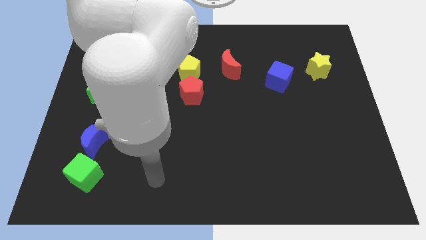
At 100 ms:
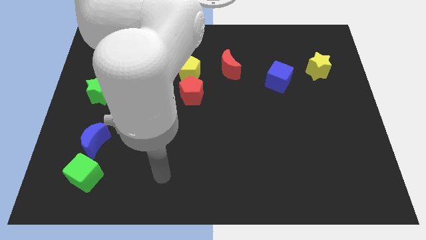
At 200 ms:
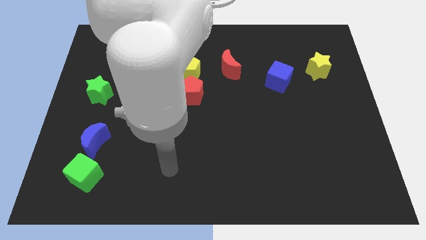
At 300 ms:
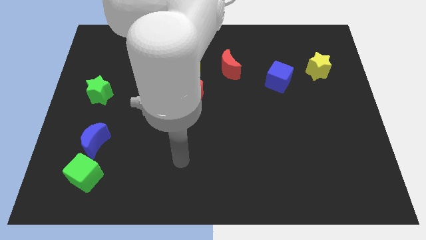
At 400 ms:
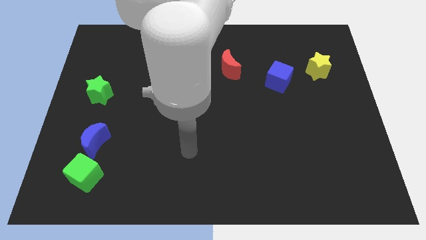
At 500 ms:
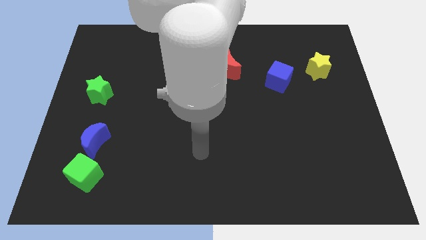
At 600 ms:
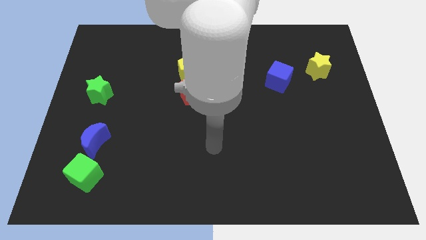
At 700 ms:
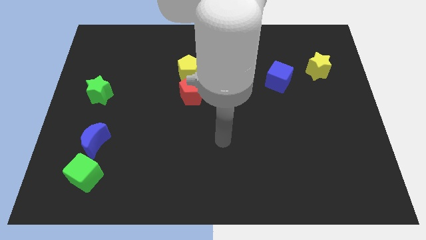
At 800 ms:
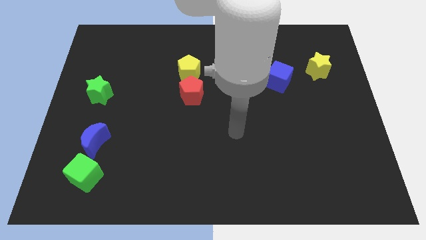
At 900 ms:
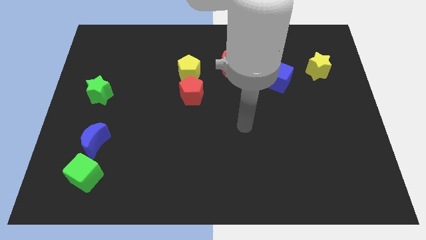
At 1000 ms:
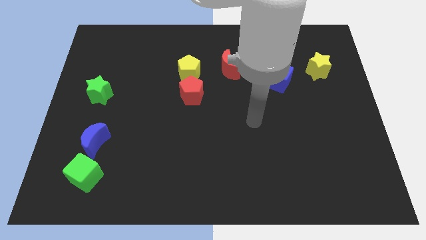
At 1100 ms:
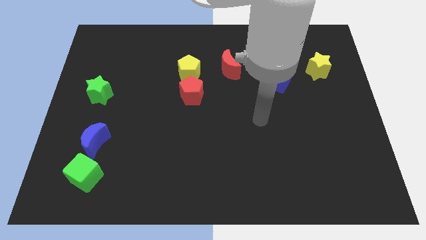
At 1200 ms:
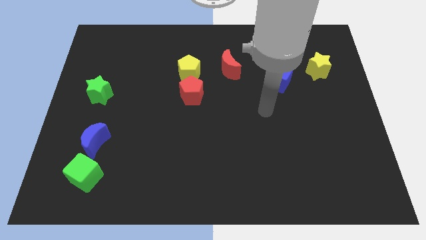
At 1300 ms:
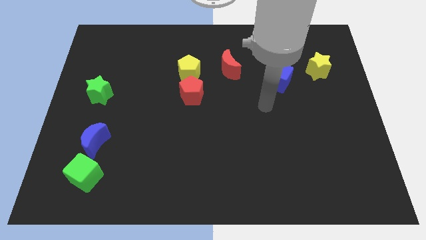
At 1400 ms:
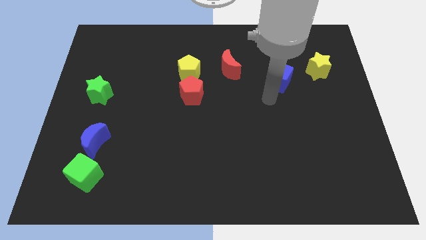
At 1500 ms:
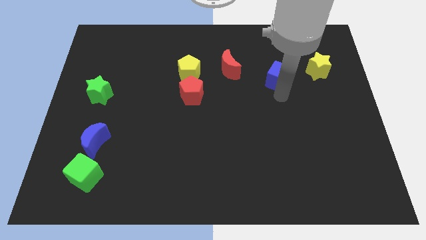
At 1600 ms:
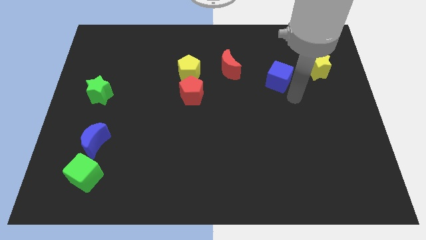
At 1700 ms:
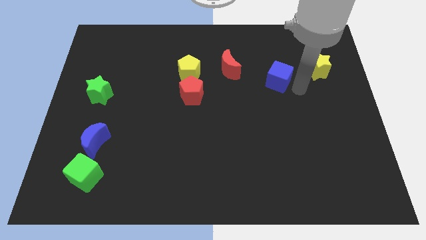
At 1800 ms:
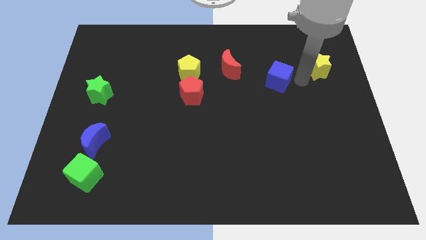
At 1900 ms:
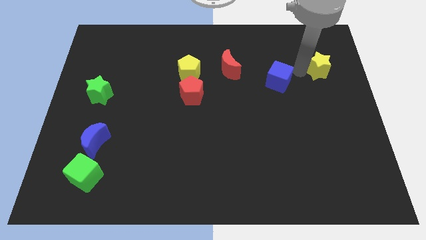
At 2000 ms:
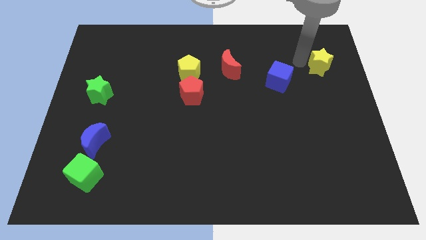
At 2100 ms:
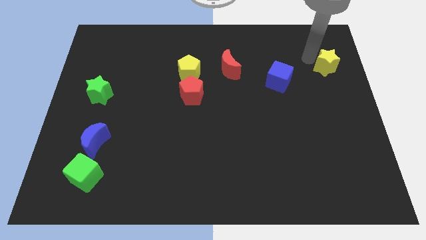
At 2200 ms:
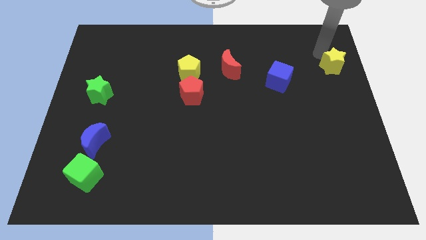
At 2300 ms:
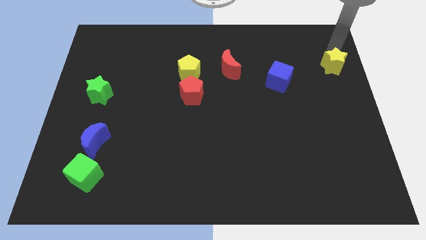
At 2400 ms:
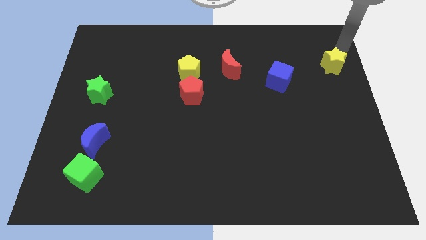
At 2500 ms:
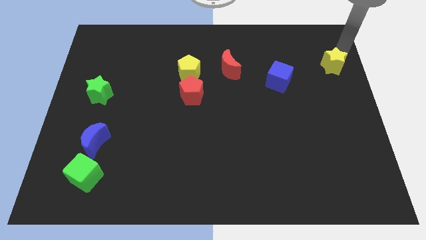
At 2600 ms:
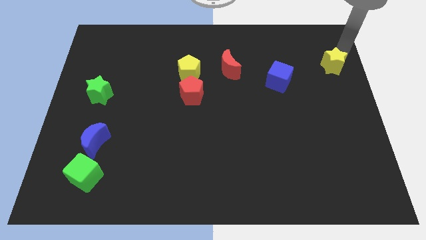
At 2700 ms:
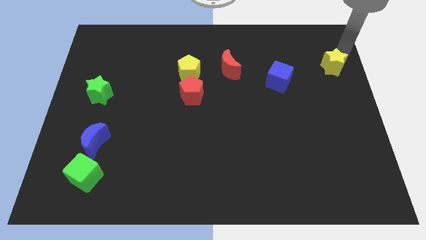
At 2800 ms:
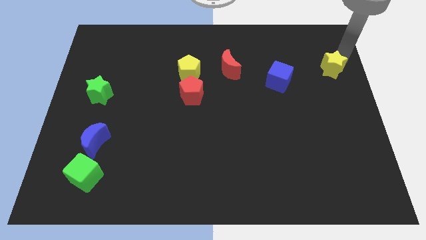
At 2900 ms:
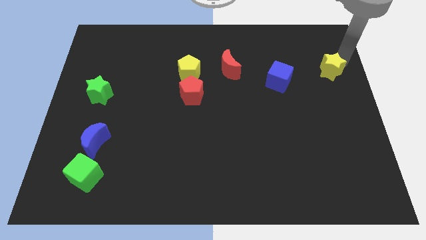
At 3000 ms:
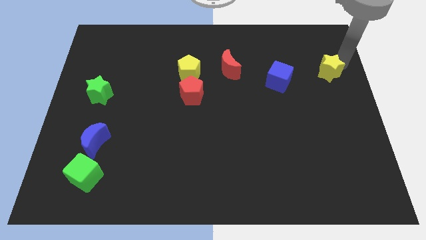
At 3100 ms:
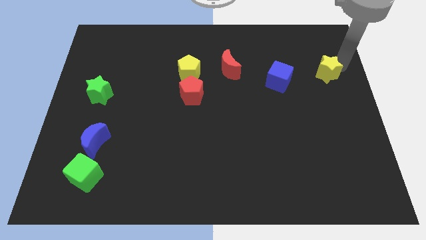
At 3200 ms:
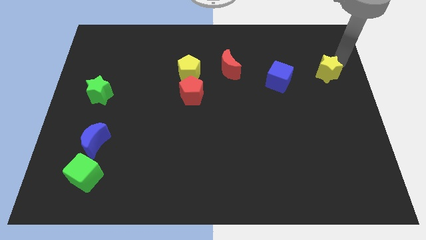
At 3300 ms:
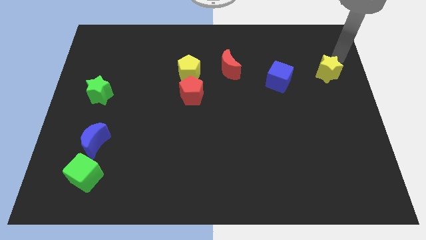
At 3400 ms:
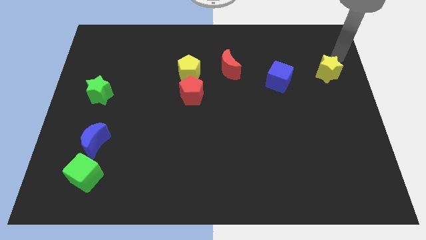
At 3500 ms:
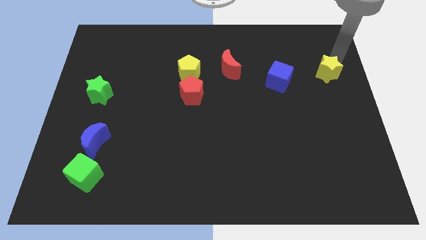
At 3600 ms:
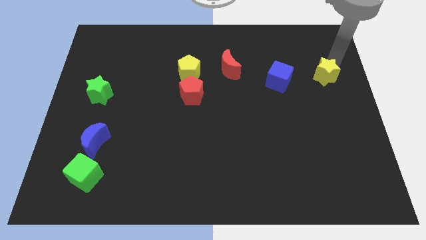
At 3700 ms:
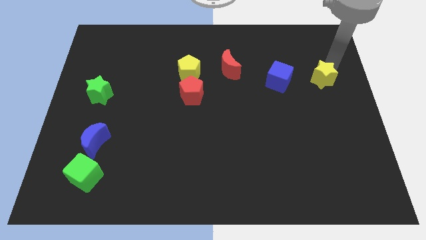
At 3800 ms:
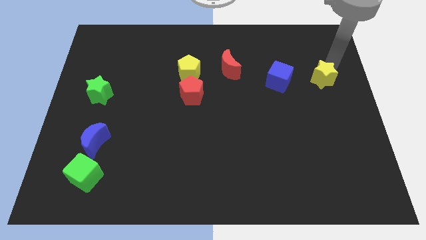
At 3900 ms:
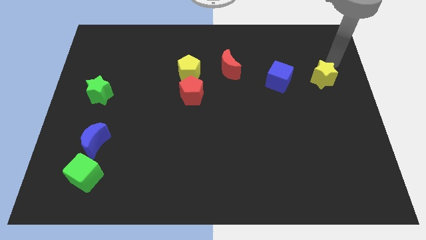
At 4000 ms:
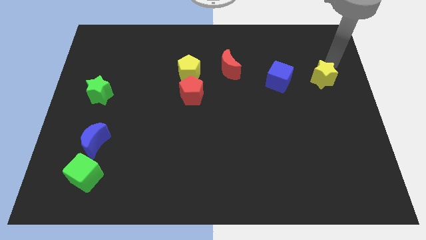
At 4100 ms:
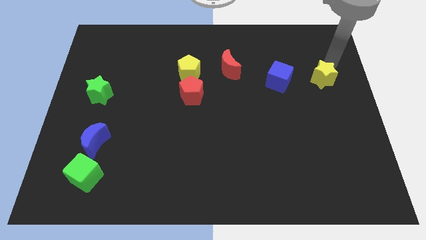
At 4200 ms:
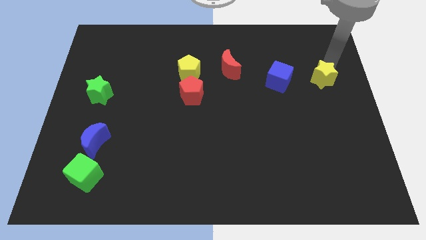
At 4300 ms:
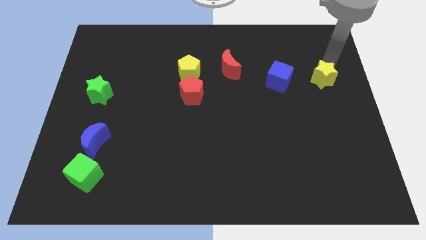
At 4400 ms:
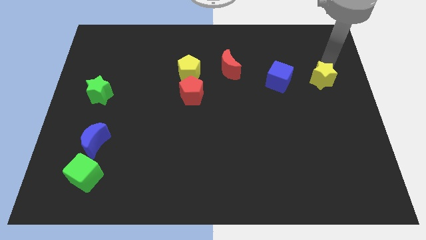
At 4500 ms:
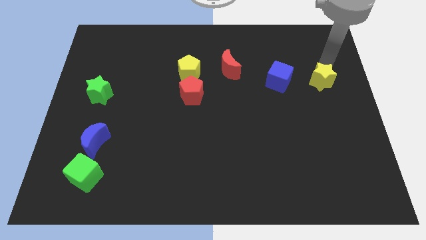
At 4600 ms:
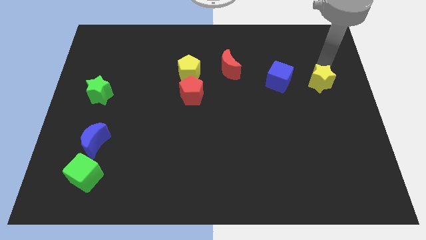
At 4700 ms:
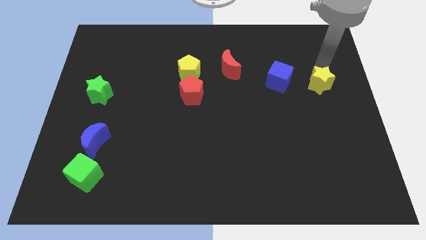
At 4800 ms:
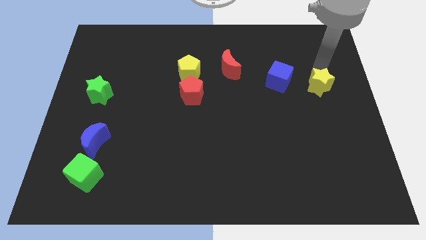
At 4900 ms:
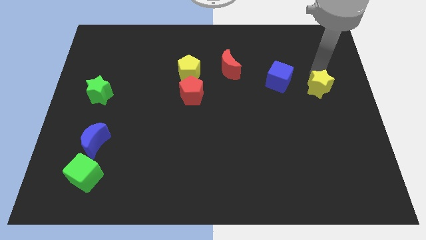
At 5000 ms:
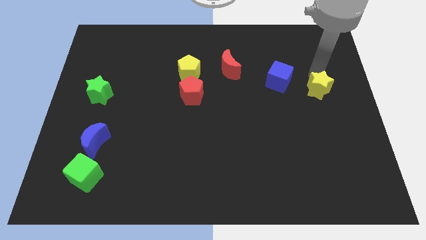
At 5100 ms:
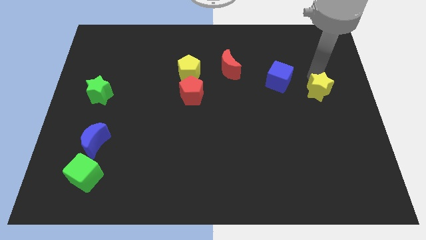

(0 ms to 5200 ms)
slide the yellow star somewhat down

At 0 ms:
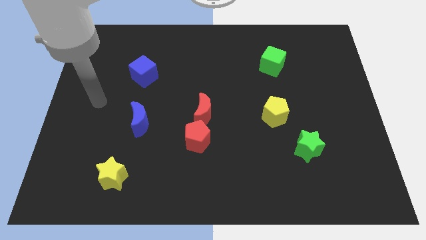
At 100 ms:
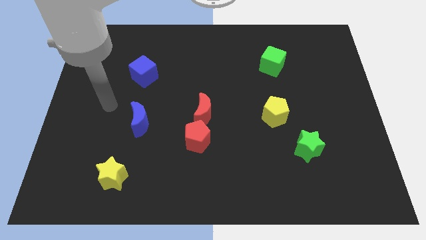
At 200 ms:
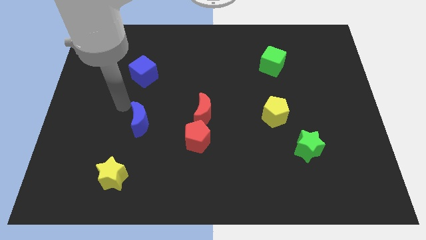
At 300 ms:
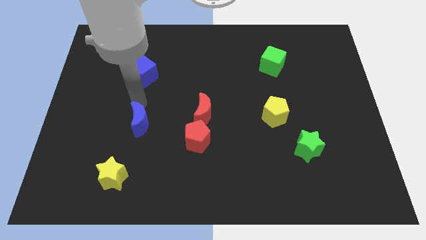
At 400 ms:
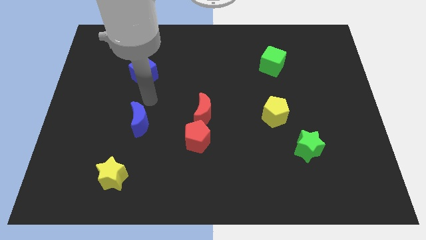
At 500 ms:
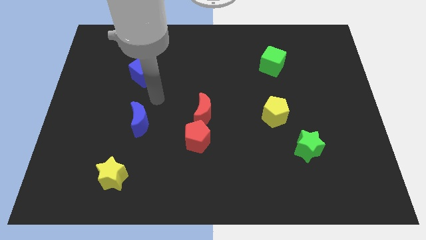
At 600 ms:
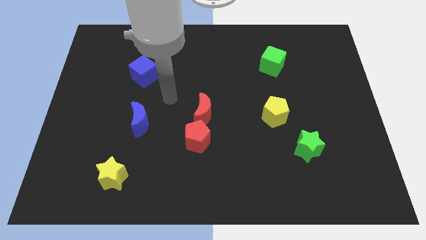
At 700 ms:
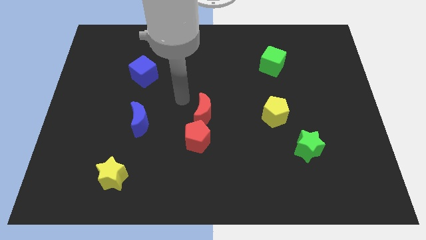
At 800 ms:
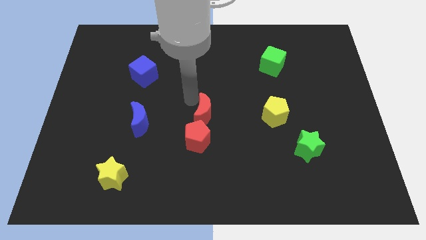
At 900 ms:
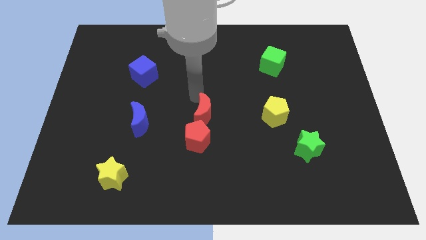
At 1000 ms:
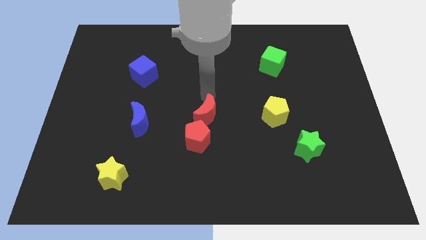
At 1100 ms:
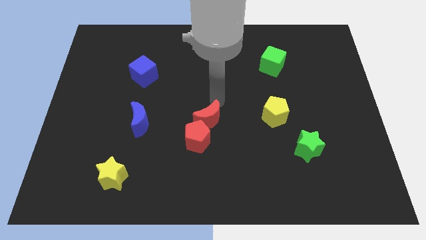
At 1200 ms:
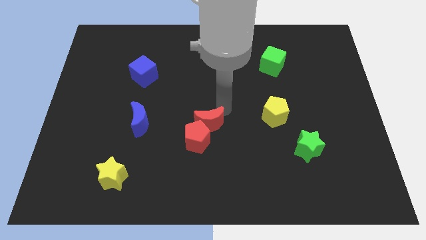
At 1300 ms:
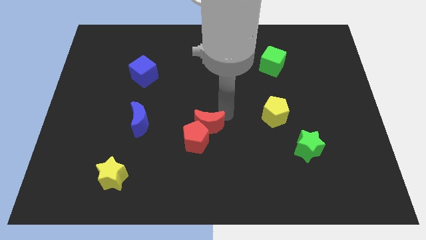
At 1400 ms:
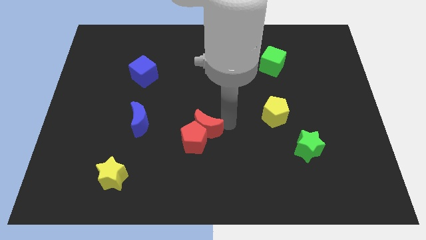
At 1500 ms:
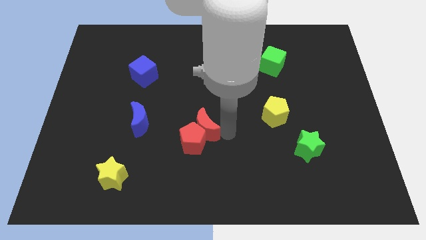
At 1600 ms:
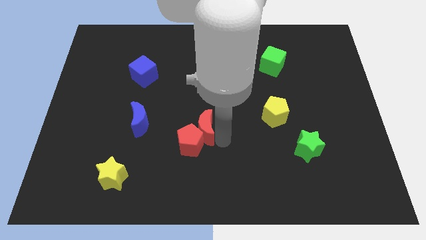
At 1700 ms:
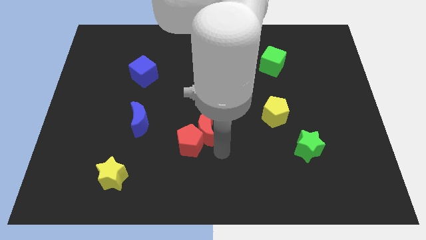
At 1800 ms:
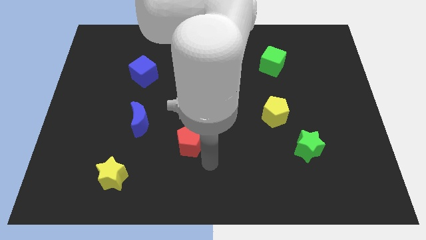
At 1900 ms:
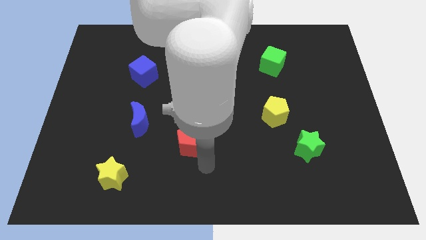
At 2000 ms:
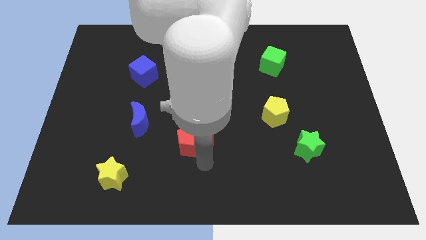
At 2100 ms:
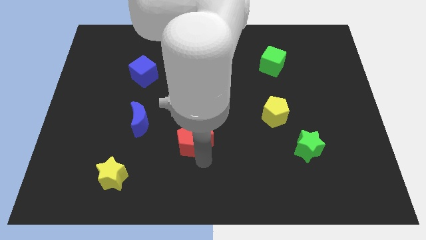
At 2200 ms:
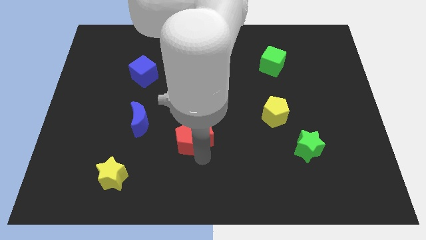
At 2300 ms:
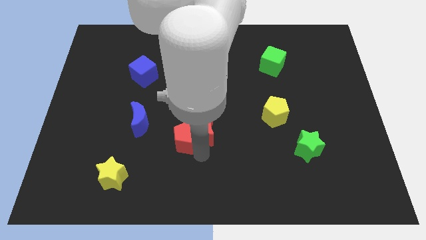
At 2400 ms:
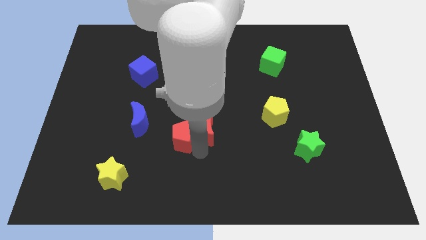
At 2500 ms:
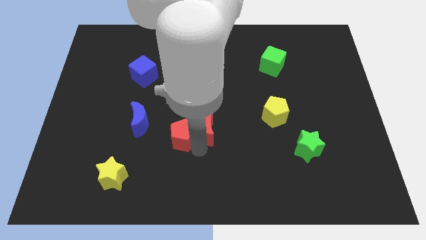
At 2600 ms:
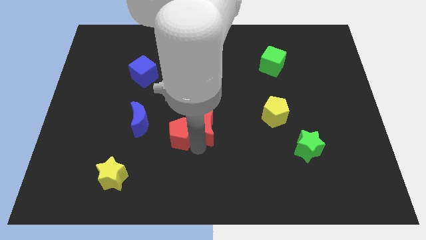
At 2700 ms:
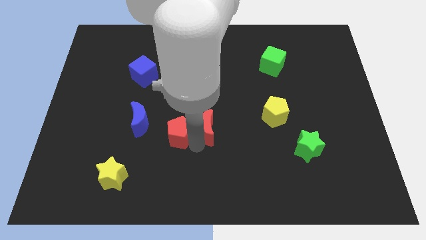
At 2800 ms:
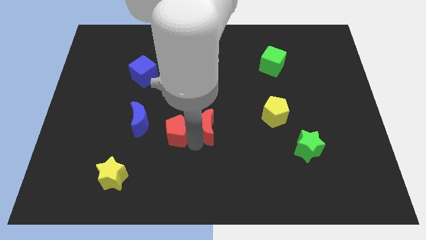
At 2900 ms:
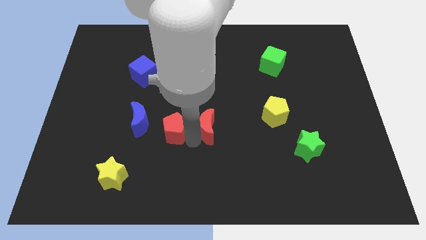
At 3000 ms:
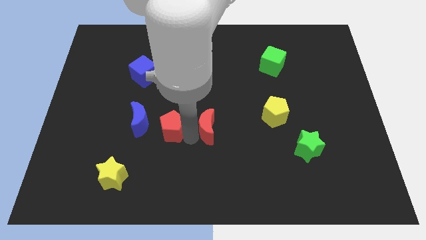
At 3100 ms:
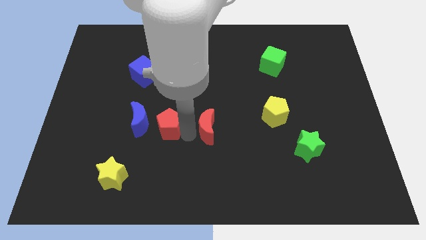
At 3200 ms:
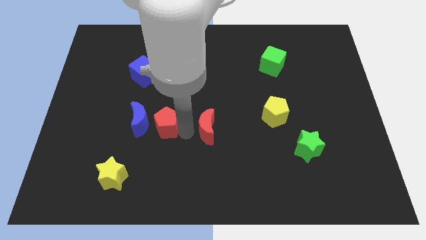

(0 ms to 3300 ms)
slide the red pentagon upwards and then left somewhat
